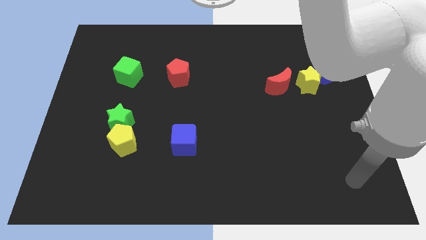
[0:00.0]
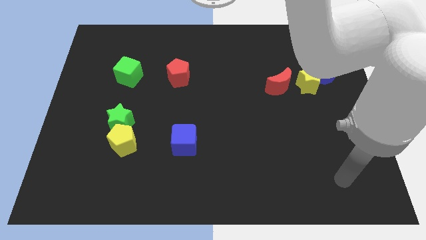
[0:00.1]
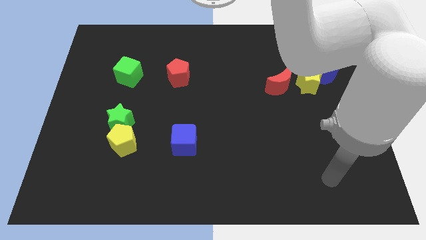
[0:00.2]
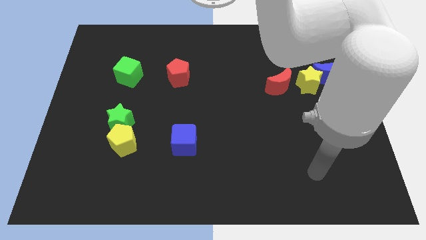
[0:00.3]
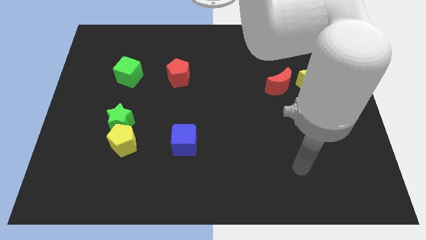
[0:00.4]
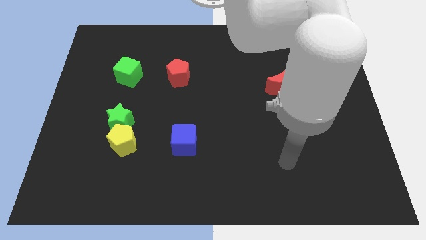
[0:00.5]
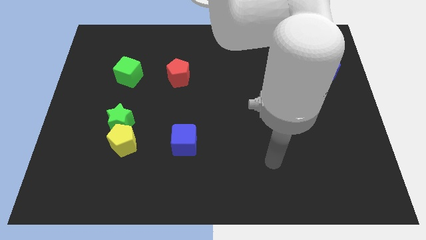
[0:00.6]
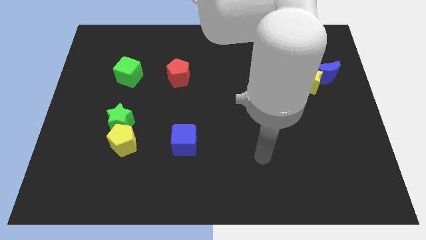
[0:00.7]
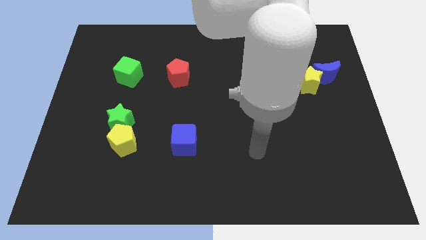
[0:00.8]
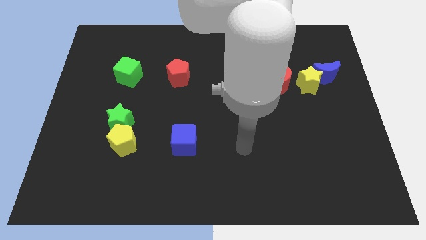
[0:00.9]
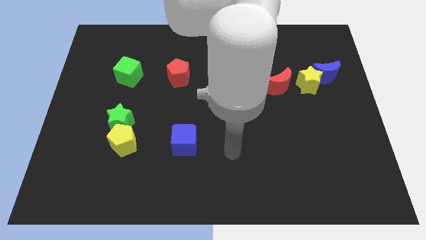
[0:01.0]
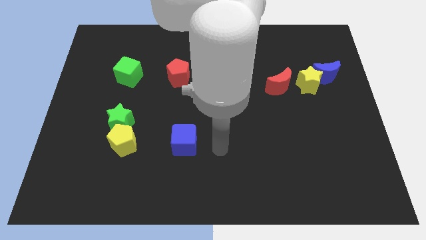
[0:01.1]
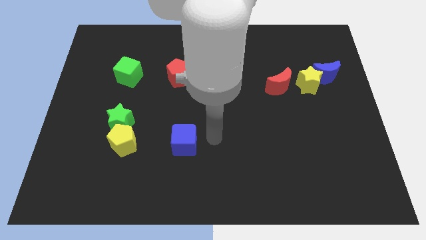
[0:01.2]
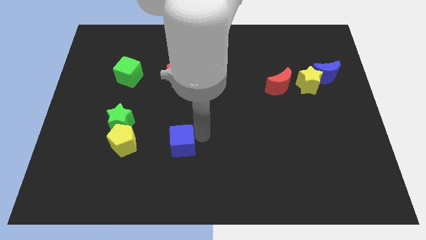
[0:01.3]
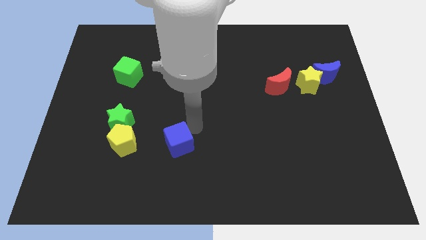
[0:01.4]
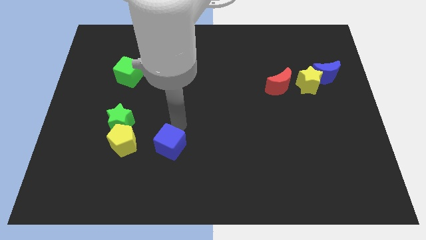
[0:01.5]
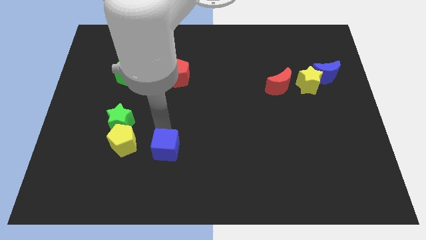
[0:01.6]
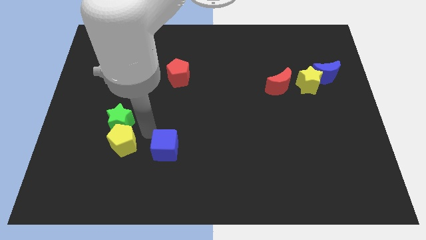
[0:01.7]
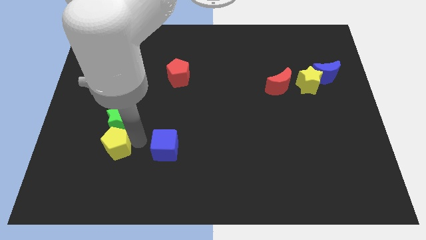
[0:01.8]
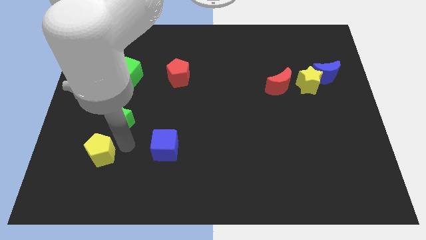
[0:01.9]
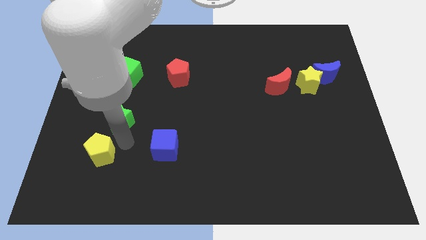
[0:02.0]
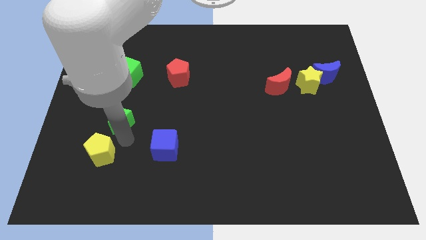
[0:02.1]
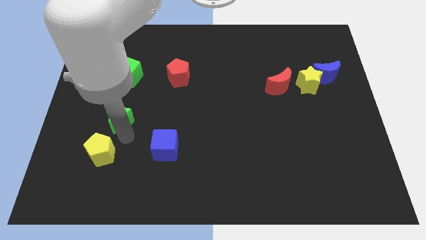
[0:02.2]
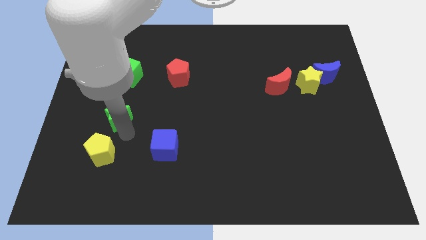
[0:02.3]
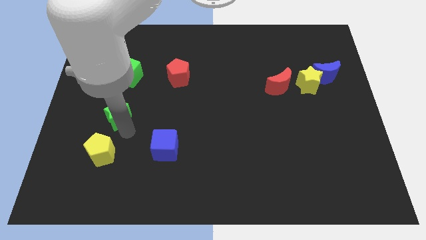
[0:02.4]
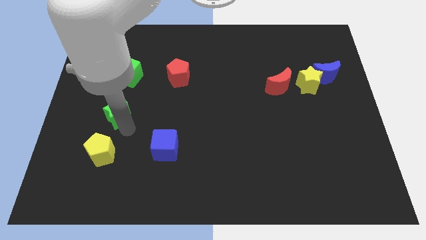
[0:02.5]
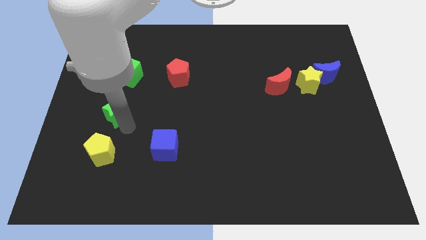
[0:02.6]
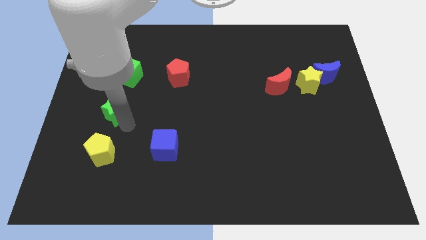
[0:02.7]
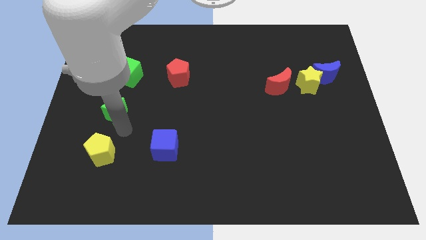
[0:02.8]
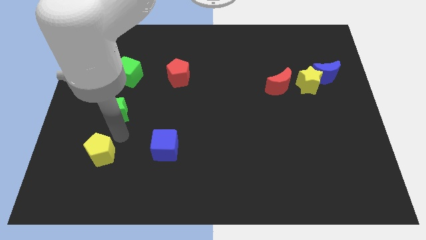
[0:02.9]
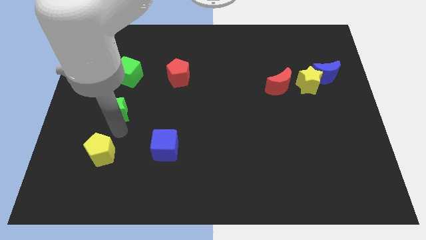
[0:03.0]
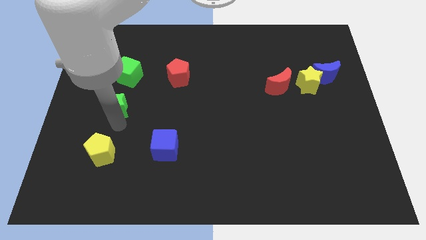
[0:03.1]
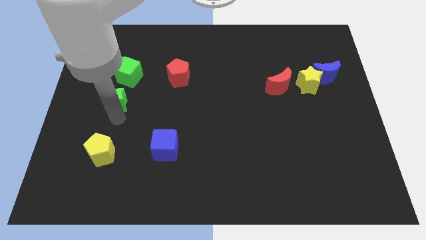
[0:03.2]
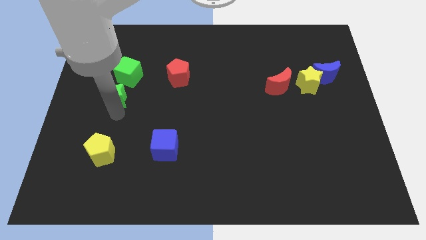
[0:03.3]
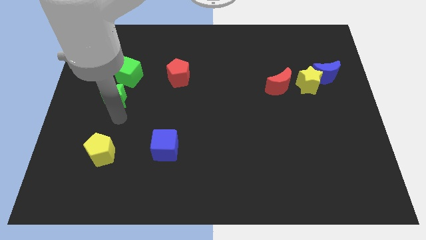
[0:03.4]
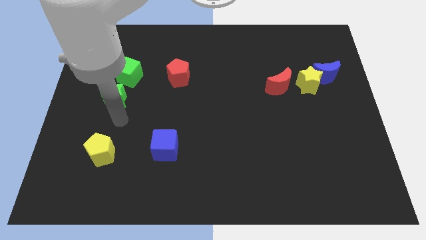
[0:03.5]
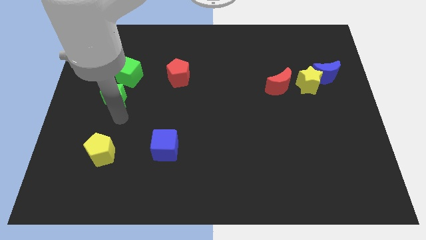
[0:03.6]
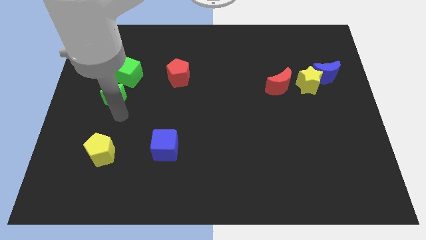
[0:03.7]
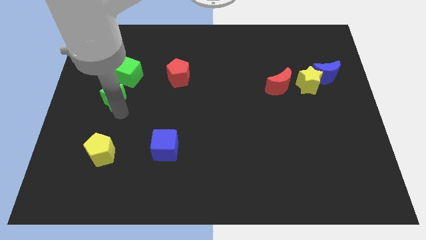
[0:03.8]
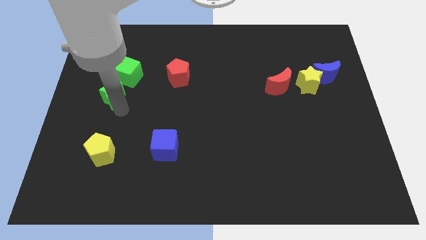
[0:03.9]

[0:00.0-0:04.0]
push the green star a little up

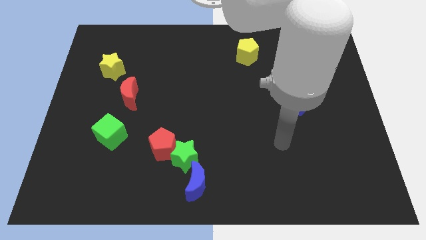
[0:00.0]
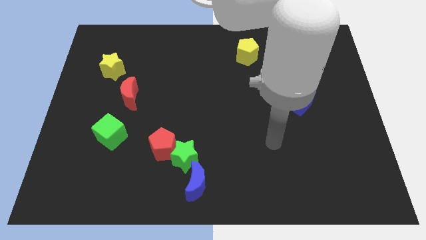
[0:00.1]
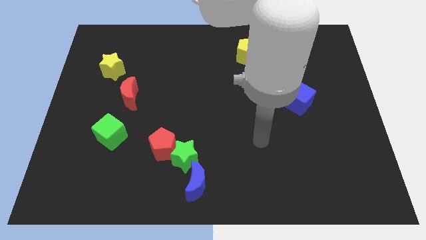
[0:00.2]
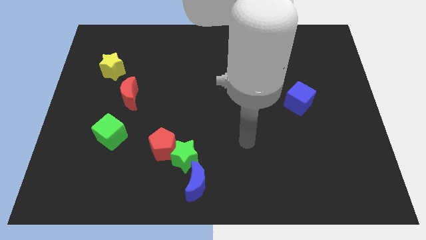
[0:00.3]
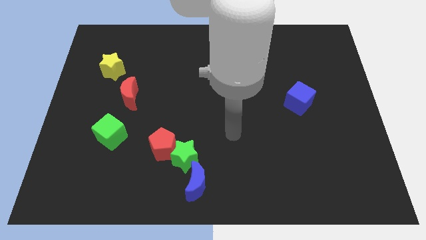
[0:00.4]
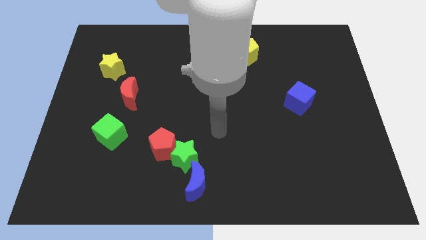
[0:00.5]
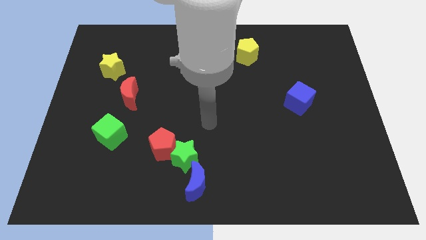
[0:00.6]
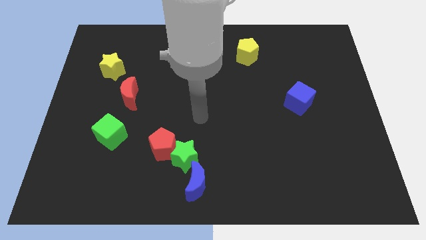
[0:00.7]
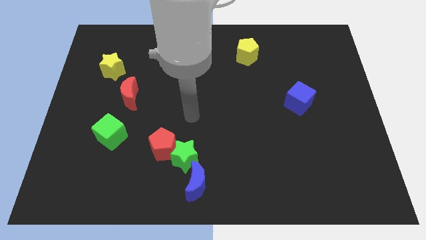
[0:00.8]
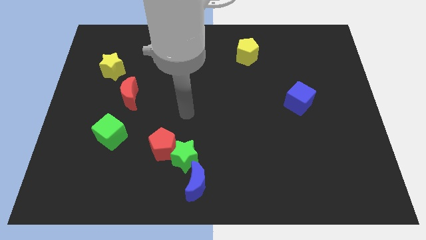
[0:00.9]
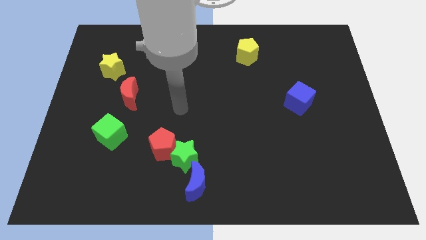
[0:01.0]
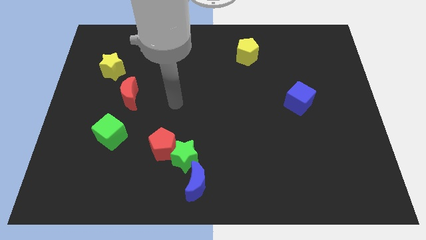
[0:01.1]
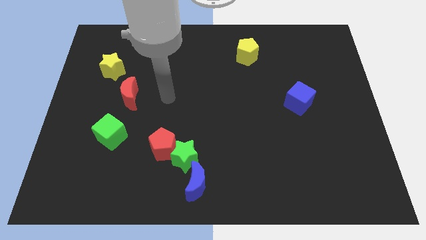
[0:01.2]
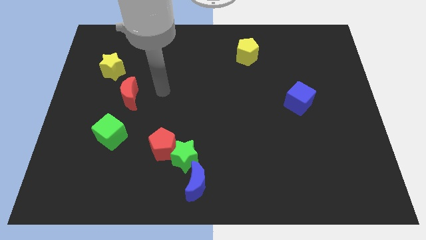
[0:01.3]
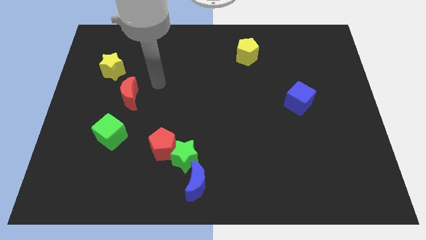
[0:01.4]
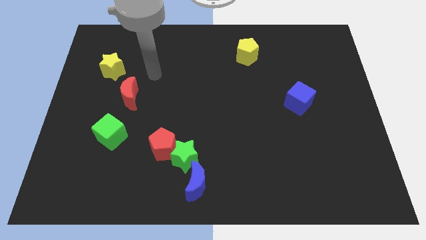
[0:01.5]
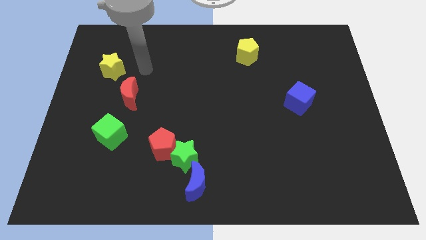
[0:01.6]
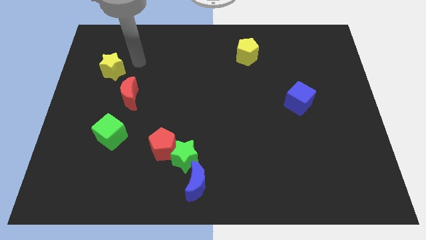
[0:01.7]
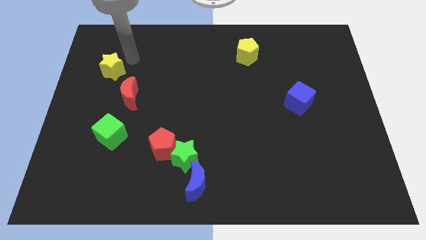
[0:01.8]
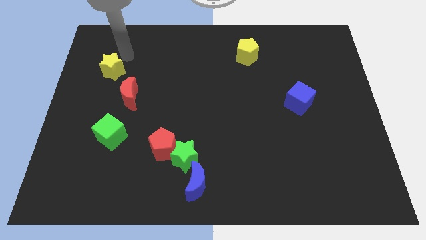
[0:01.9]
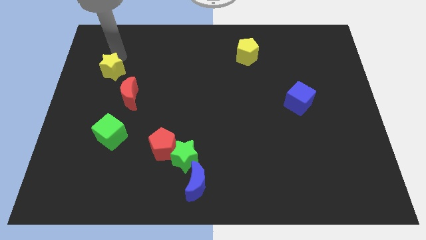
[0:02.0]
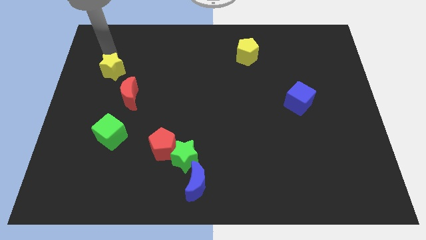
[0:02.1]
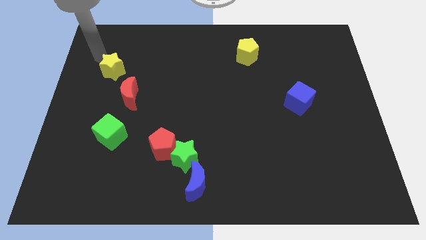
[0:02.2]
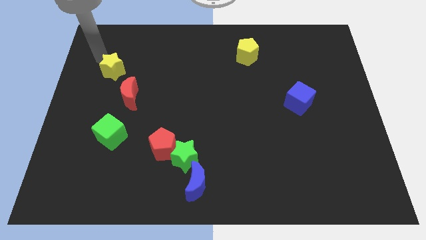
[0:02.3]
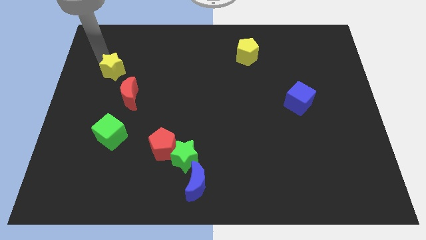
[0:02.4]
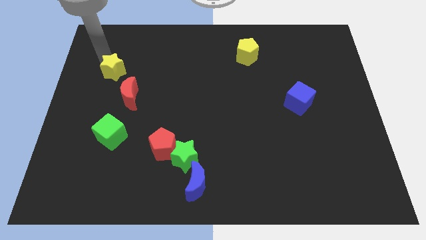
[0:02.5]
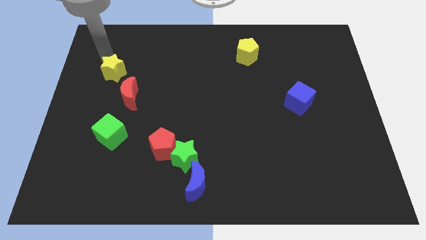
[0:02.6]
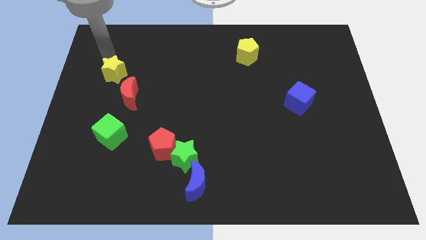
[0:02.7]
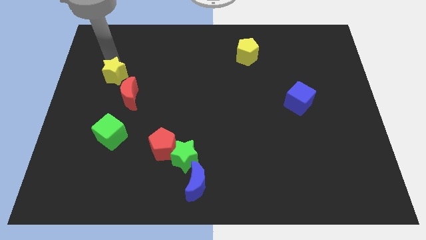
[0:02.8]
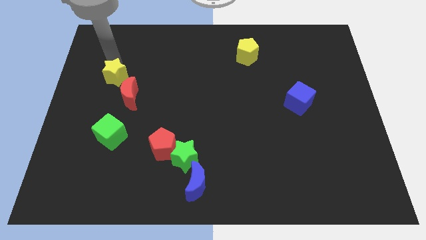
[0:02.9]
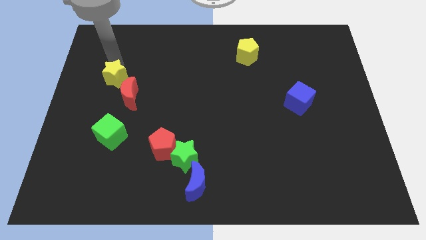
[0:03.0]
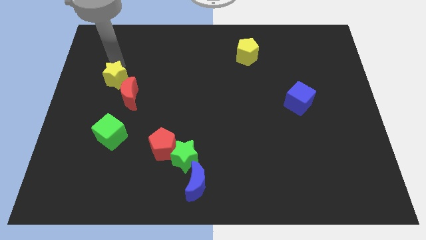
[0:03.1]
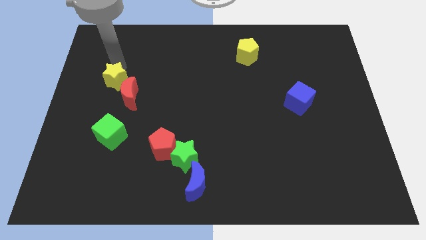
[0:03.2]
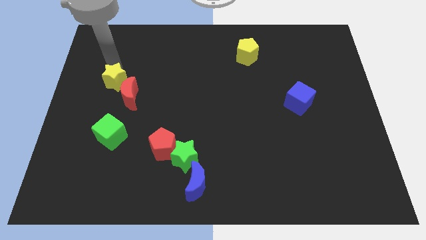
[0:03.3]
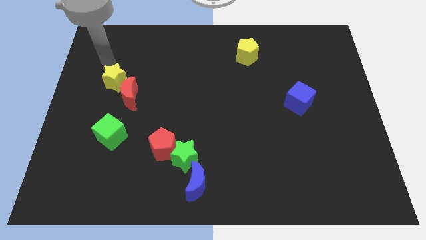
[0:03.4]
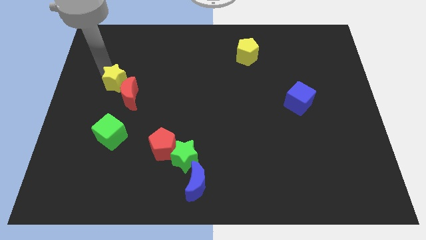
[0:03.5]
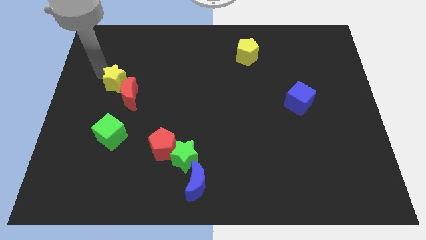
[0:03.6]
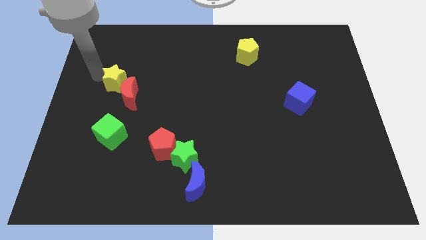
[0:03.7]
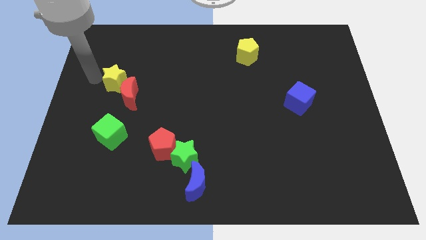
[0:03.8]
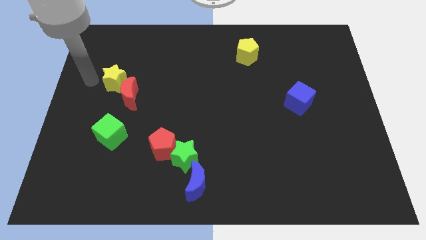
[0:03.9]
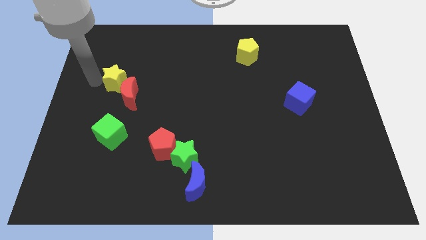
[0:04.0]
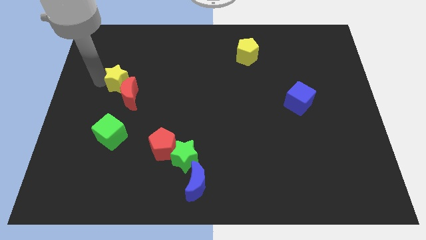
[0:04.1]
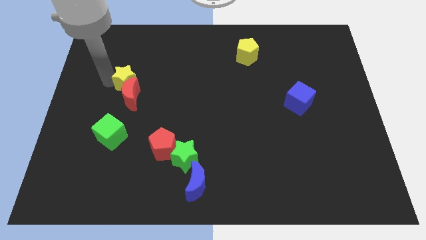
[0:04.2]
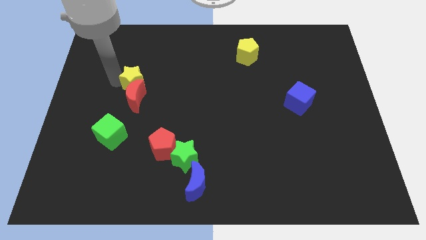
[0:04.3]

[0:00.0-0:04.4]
slightly slide the yellow star downwards and right

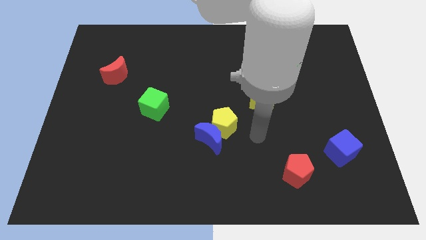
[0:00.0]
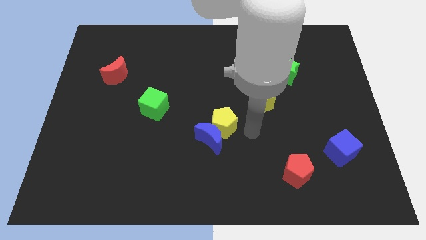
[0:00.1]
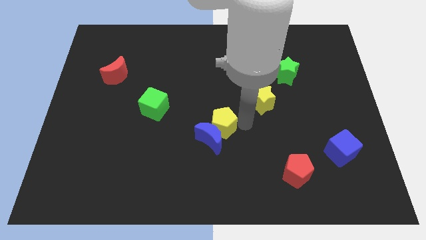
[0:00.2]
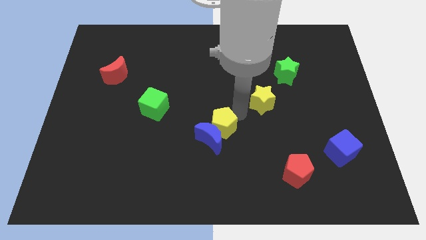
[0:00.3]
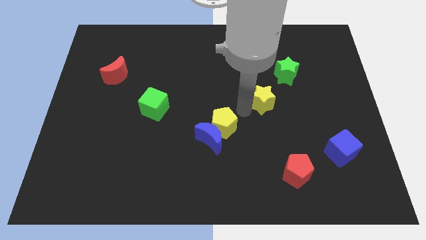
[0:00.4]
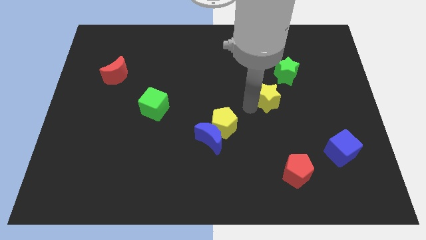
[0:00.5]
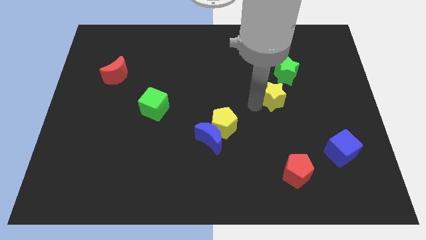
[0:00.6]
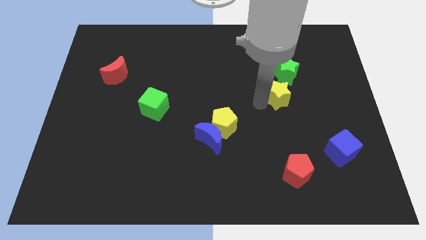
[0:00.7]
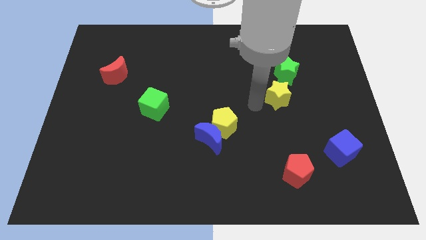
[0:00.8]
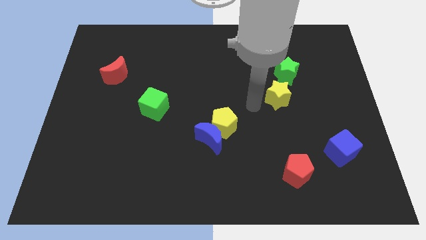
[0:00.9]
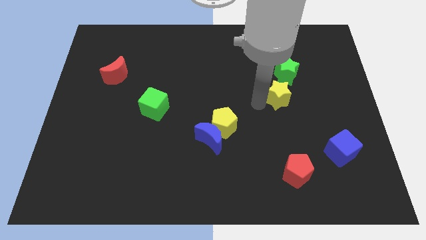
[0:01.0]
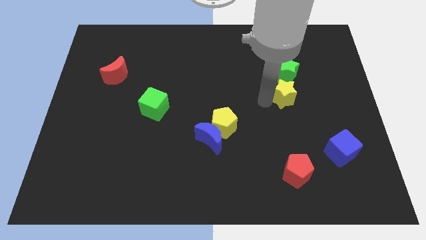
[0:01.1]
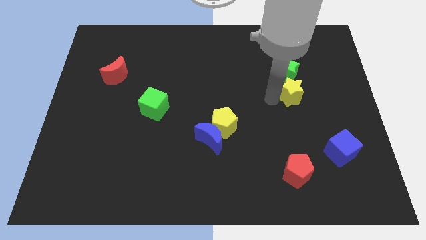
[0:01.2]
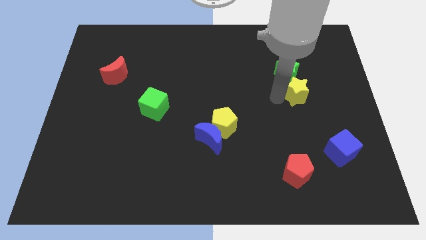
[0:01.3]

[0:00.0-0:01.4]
slightly slide the yellow star upwards and to the right diagonally
